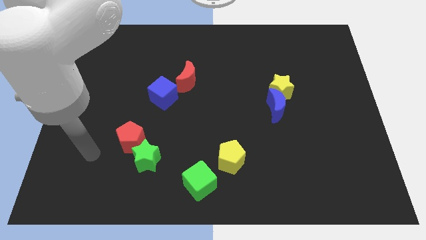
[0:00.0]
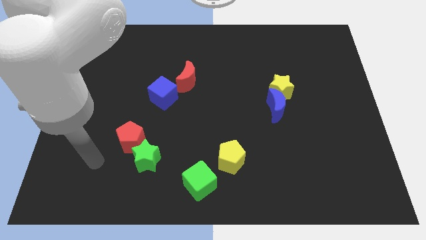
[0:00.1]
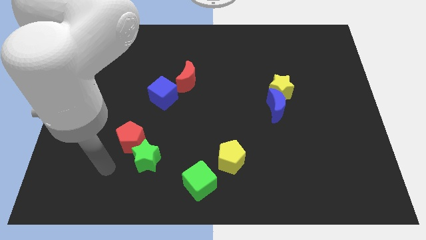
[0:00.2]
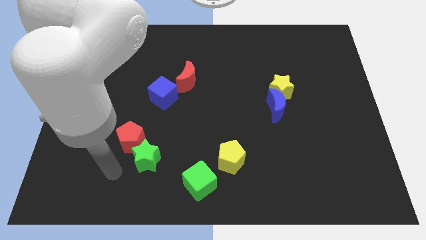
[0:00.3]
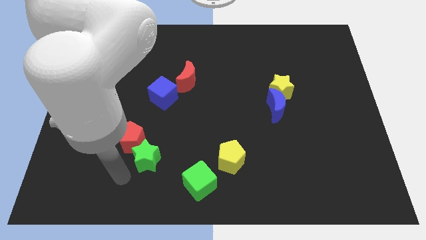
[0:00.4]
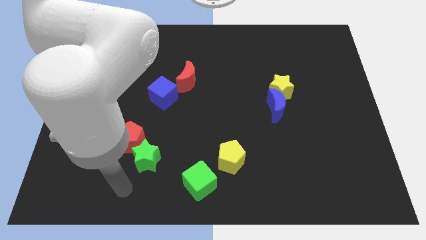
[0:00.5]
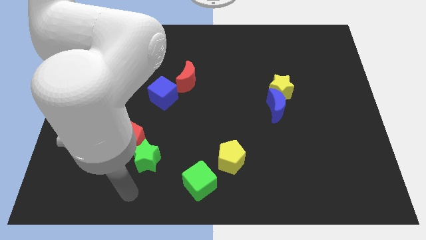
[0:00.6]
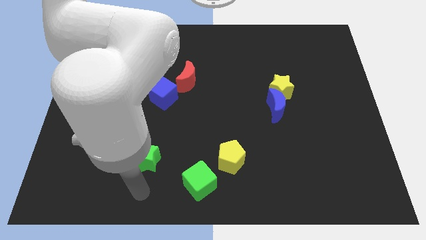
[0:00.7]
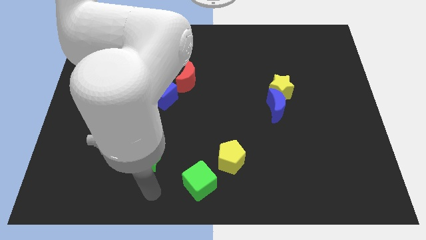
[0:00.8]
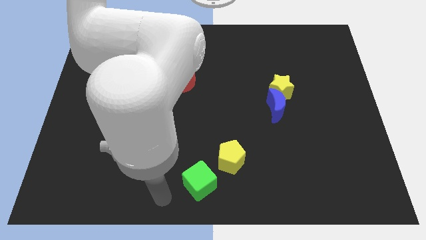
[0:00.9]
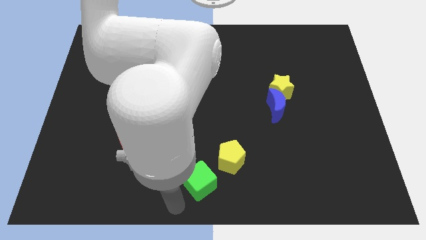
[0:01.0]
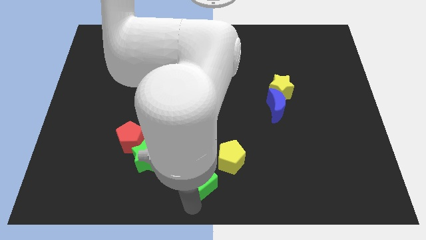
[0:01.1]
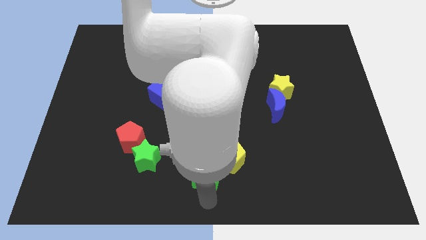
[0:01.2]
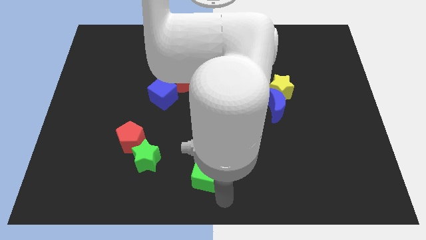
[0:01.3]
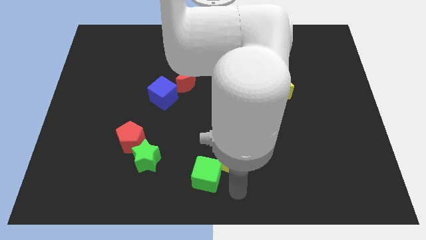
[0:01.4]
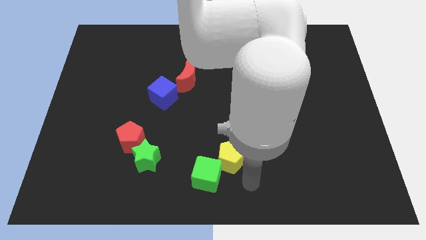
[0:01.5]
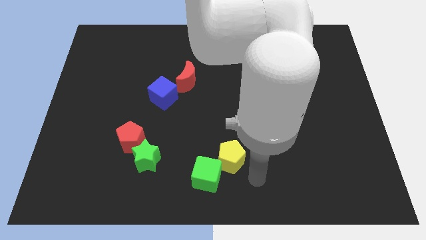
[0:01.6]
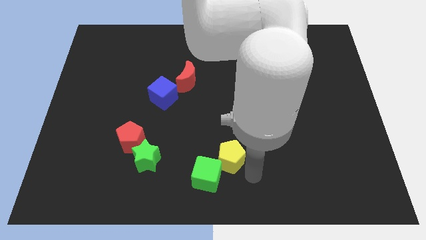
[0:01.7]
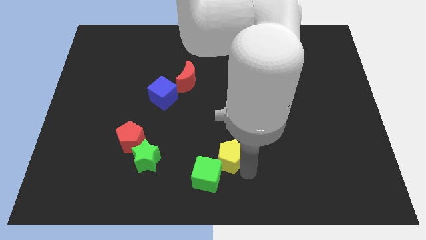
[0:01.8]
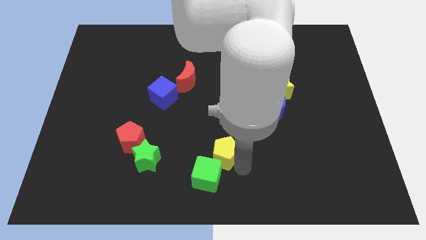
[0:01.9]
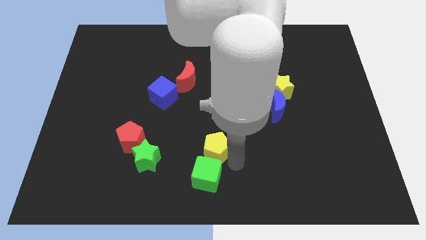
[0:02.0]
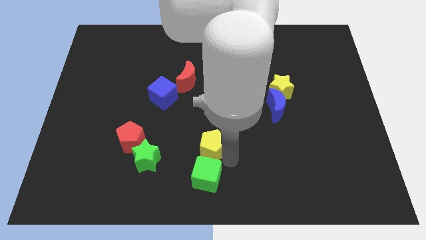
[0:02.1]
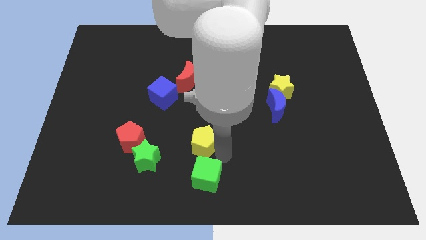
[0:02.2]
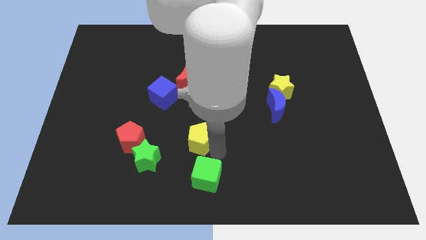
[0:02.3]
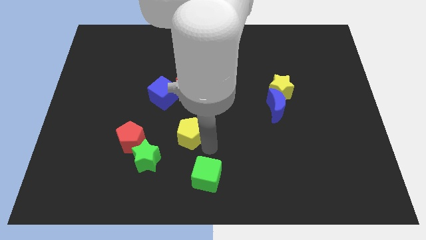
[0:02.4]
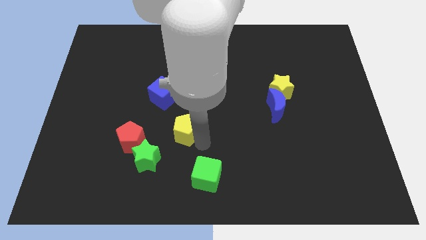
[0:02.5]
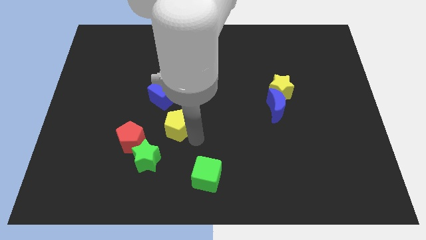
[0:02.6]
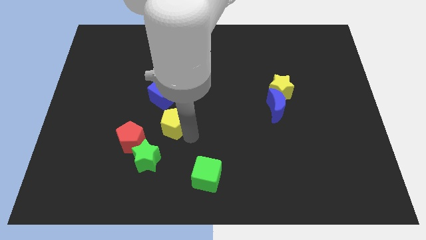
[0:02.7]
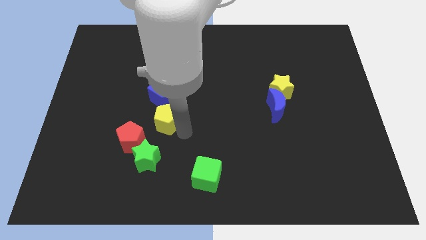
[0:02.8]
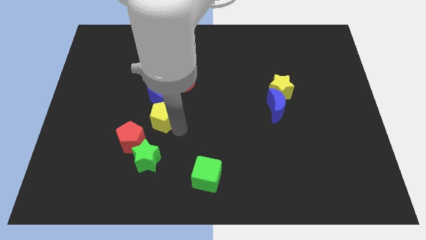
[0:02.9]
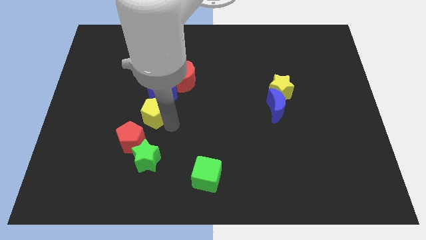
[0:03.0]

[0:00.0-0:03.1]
push the yellow pentagon upwards and to the left diagonally

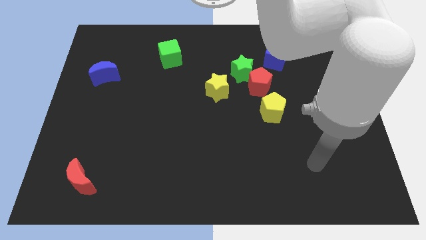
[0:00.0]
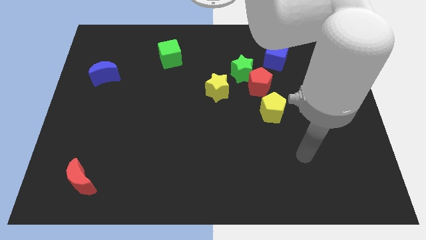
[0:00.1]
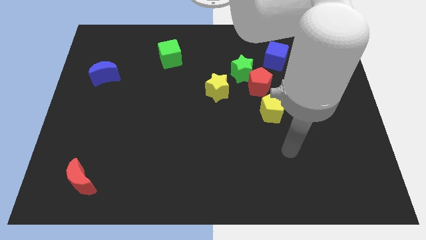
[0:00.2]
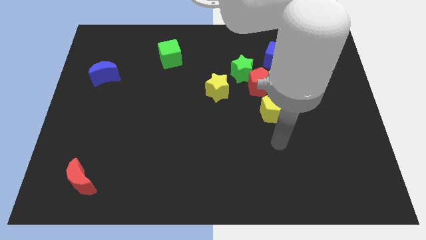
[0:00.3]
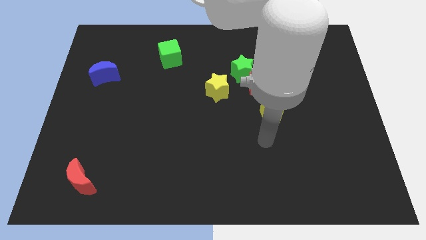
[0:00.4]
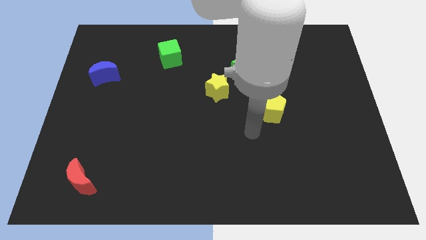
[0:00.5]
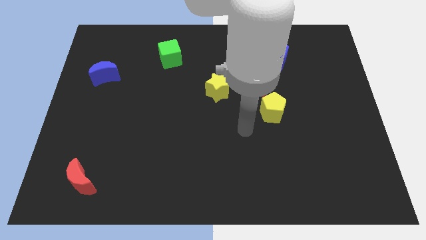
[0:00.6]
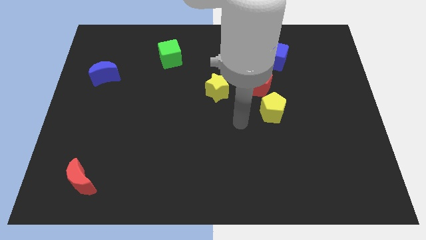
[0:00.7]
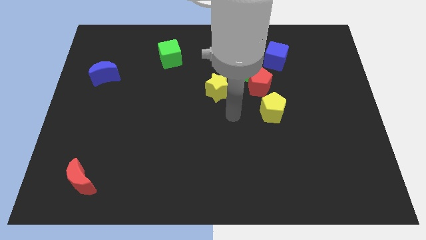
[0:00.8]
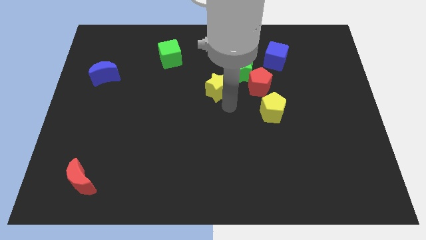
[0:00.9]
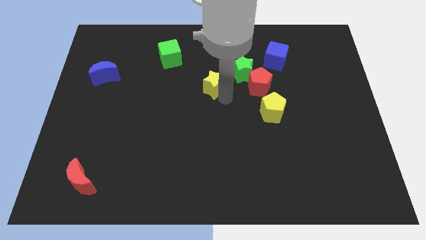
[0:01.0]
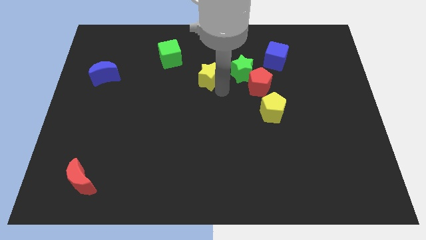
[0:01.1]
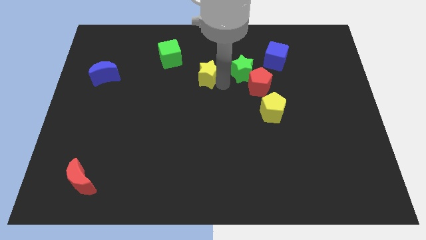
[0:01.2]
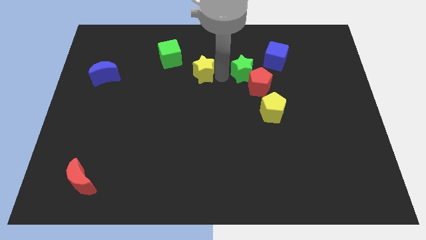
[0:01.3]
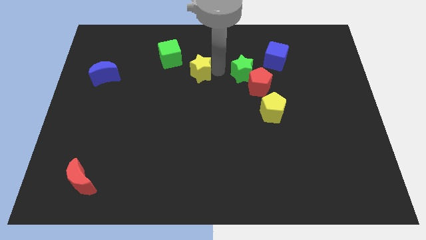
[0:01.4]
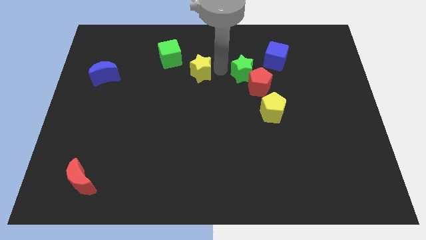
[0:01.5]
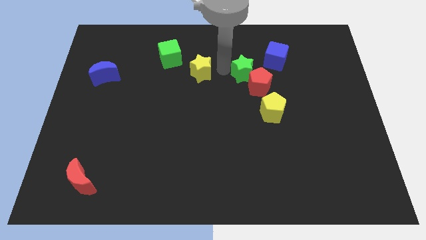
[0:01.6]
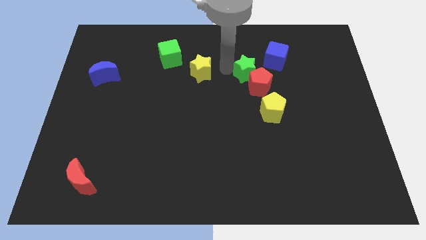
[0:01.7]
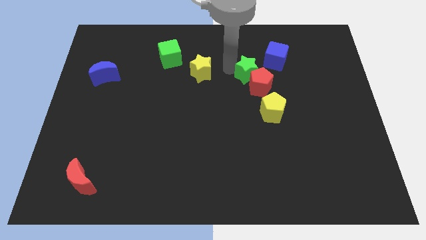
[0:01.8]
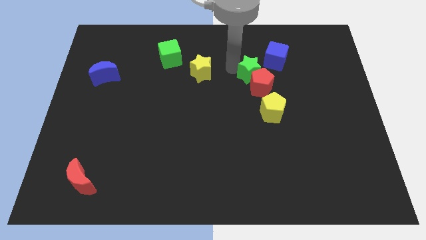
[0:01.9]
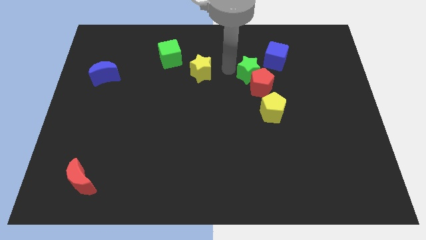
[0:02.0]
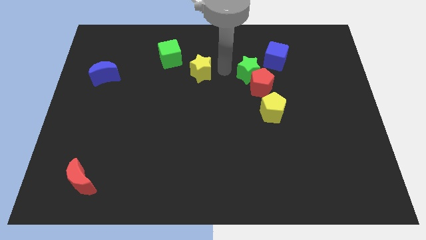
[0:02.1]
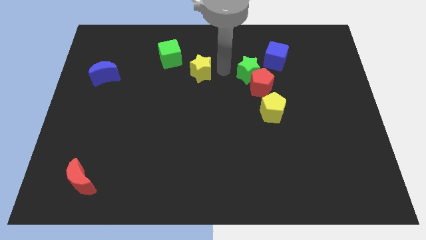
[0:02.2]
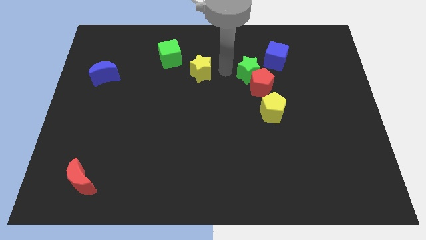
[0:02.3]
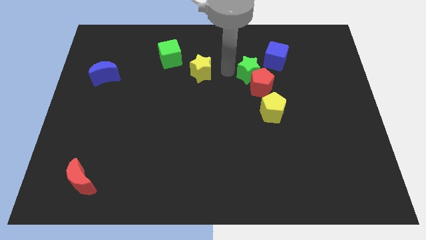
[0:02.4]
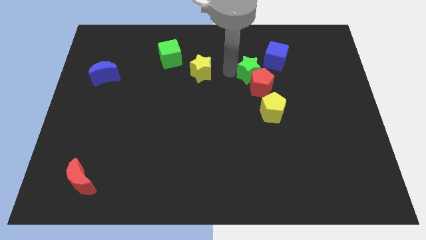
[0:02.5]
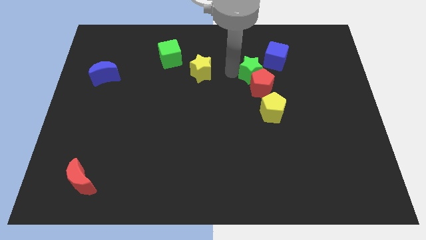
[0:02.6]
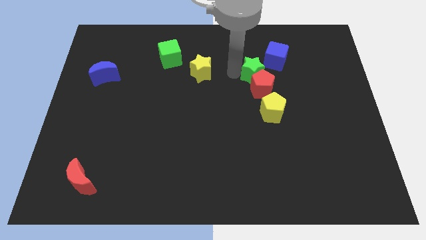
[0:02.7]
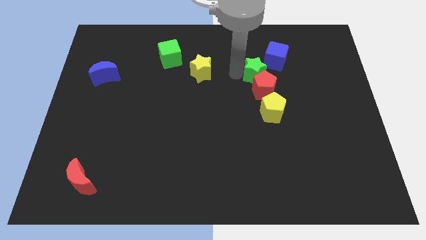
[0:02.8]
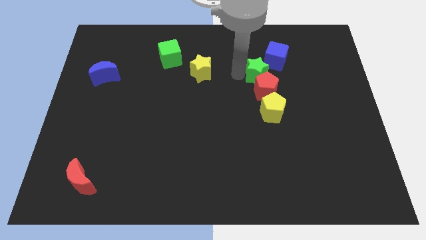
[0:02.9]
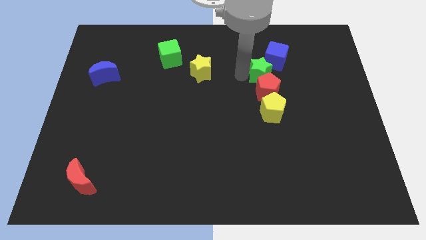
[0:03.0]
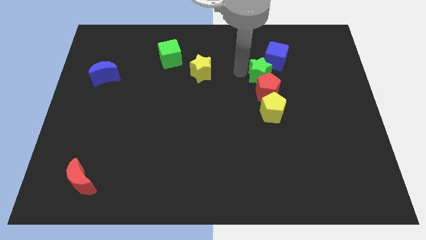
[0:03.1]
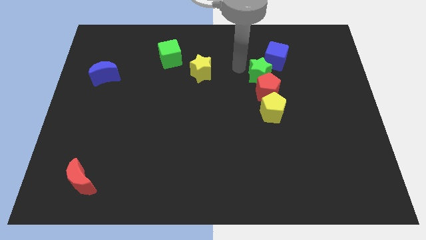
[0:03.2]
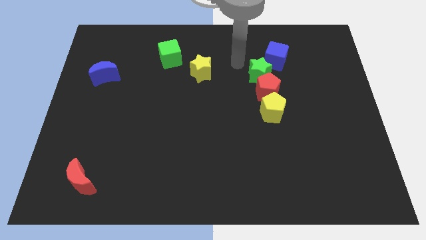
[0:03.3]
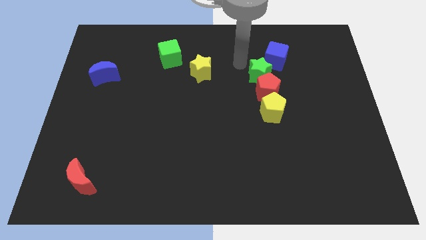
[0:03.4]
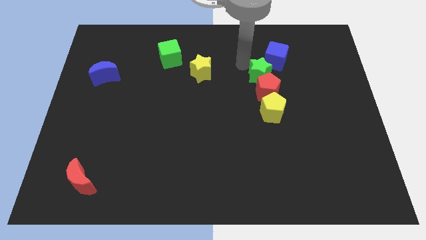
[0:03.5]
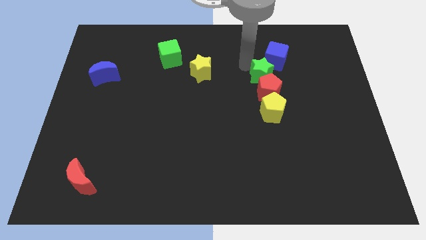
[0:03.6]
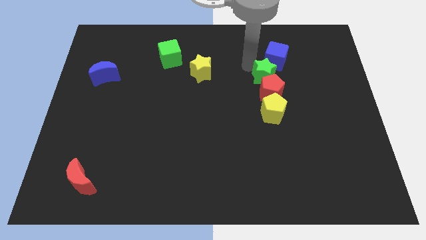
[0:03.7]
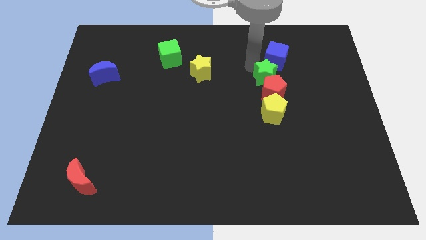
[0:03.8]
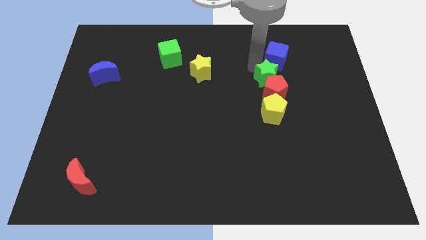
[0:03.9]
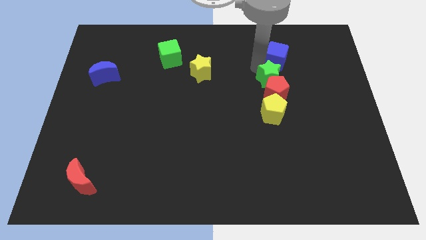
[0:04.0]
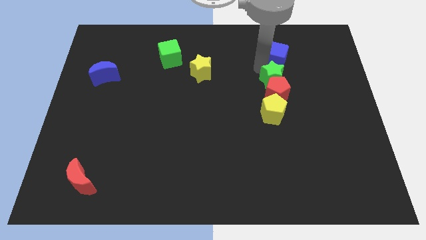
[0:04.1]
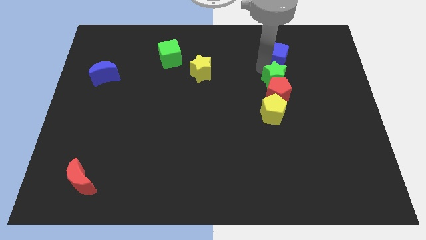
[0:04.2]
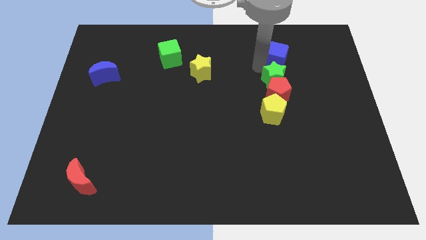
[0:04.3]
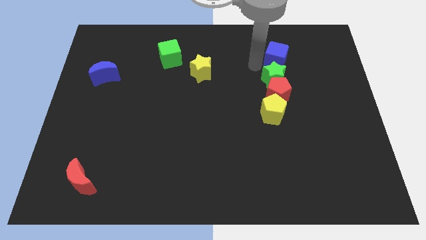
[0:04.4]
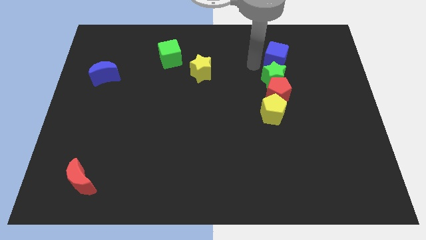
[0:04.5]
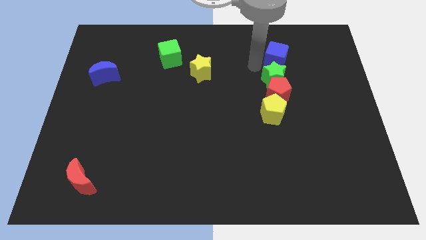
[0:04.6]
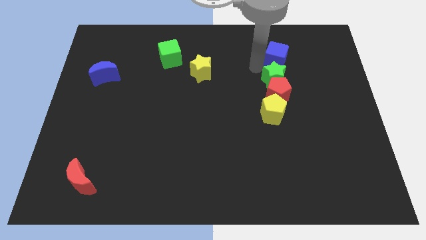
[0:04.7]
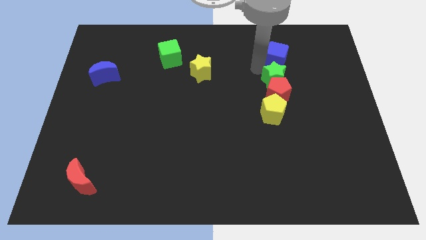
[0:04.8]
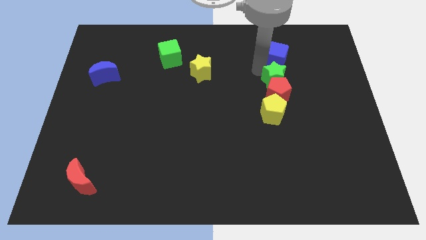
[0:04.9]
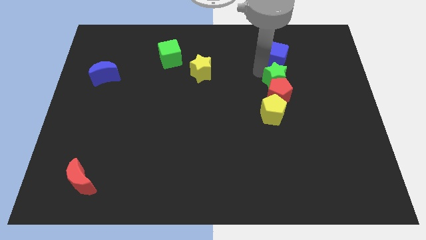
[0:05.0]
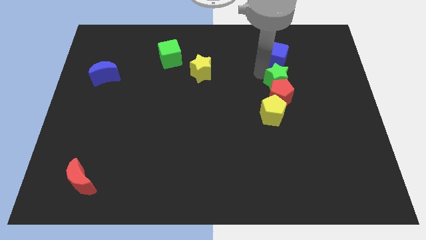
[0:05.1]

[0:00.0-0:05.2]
slightly push the green star diagonally downwards and to the right

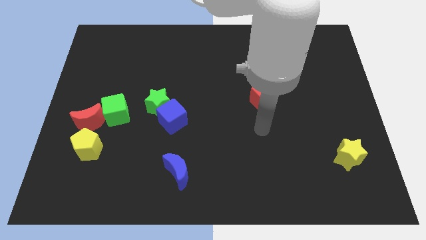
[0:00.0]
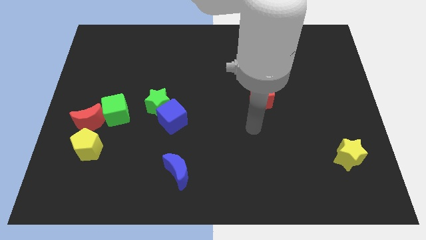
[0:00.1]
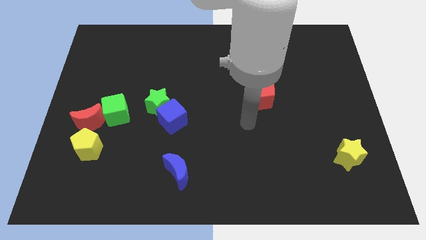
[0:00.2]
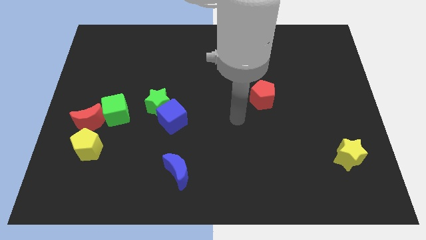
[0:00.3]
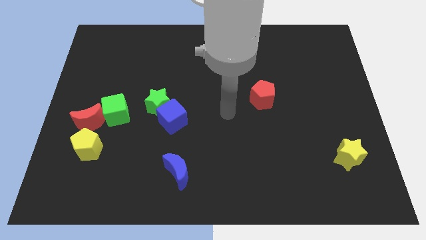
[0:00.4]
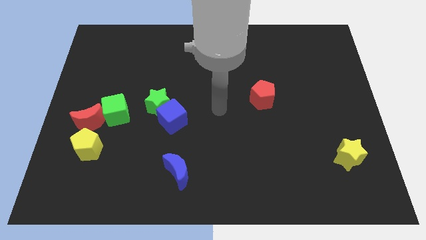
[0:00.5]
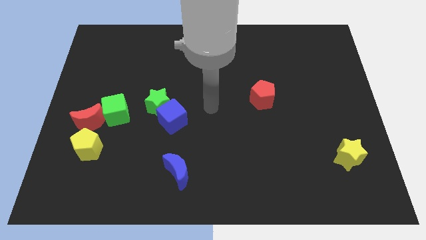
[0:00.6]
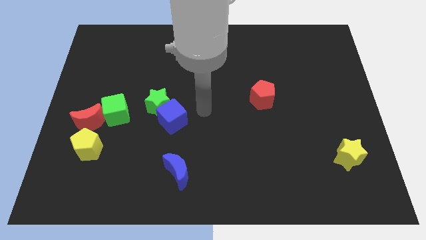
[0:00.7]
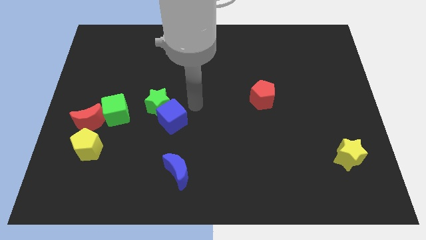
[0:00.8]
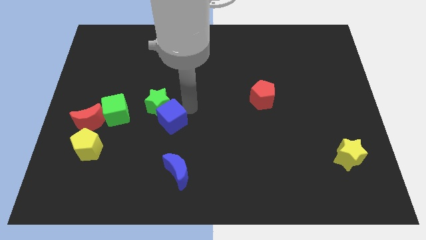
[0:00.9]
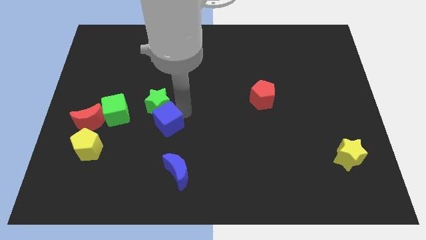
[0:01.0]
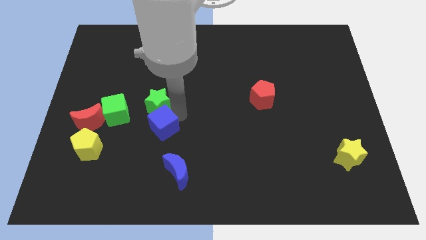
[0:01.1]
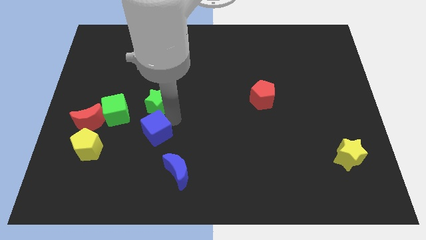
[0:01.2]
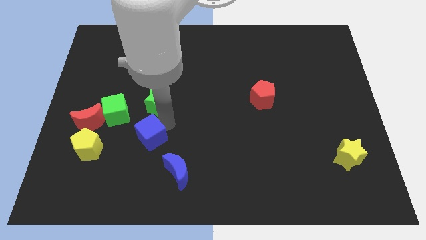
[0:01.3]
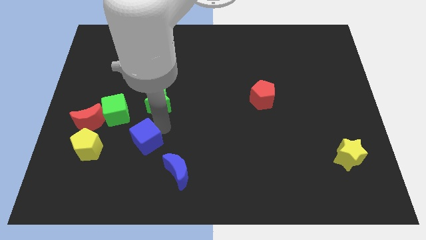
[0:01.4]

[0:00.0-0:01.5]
move the blue cube downwards and to the left a little
